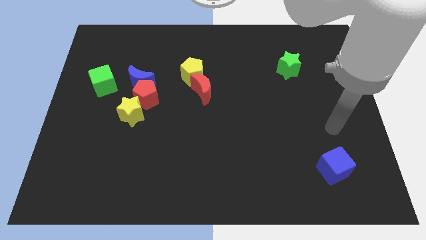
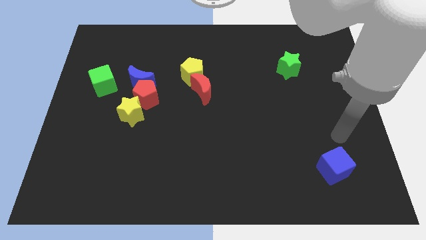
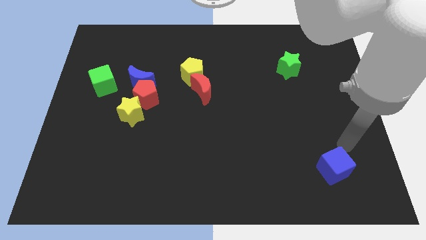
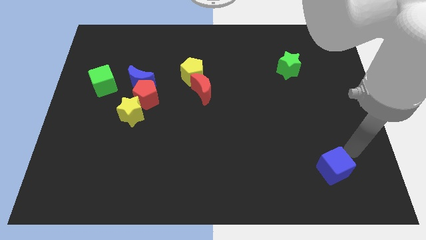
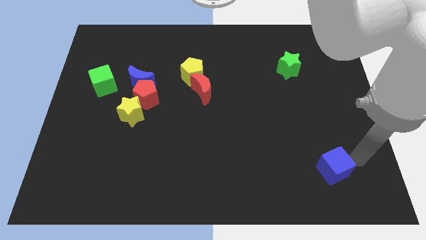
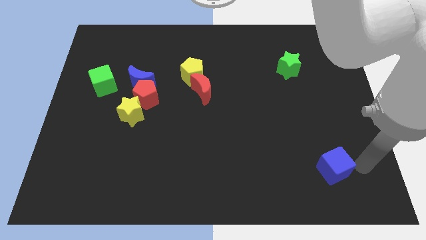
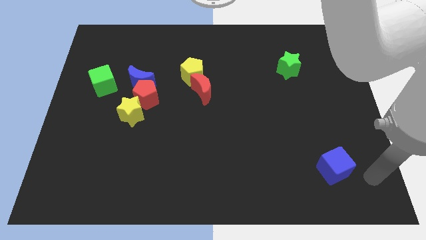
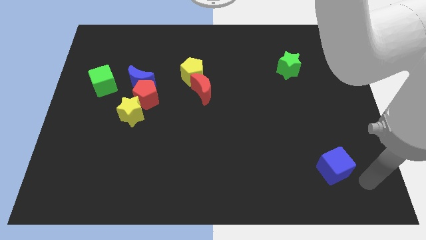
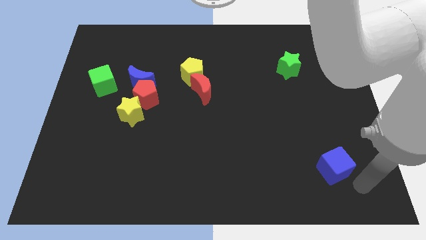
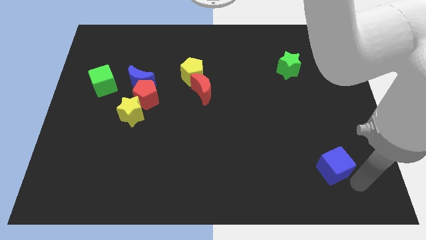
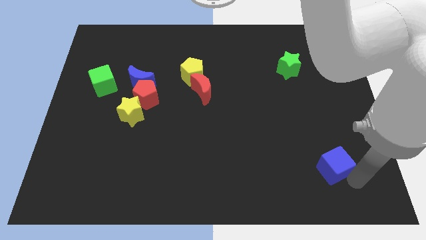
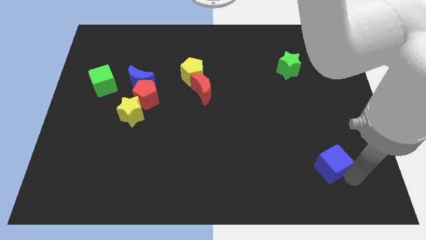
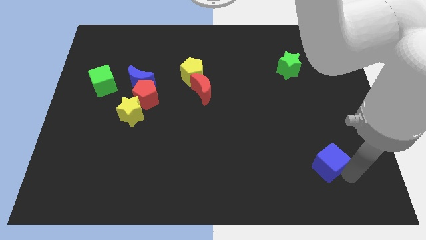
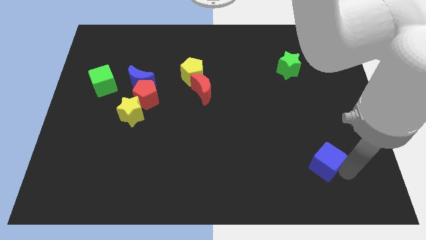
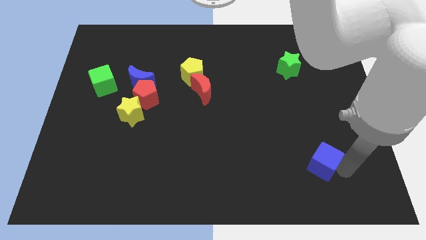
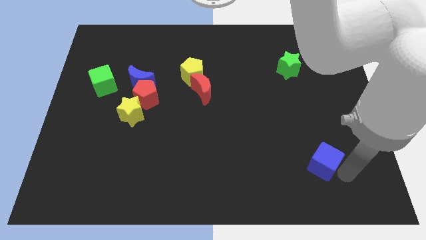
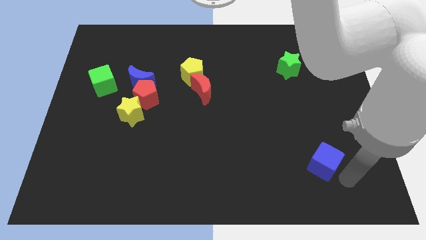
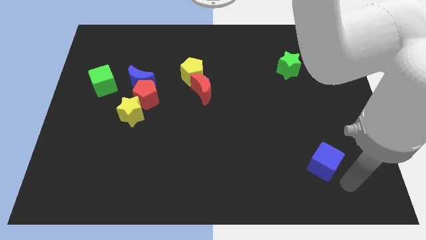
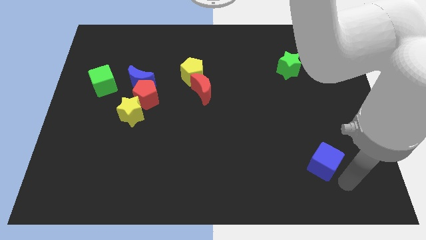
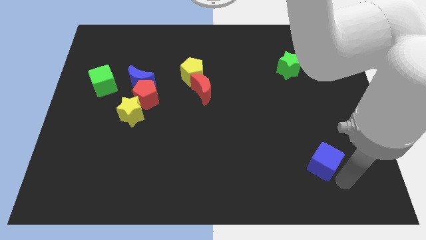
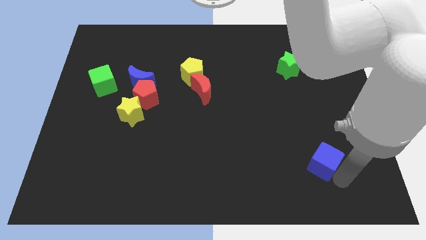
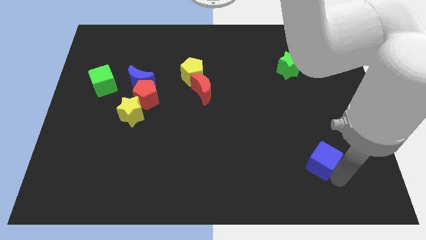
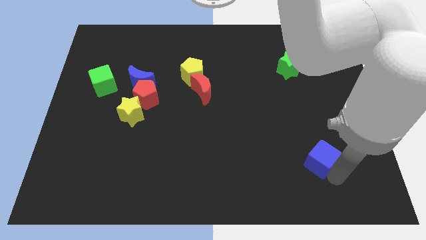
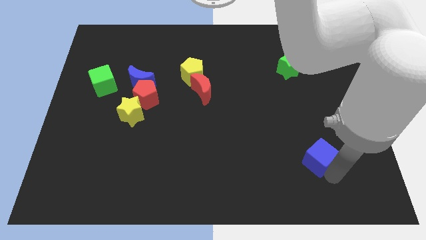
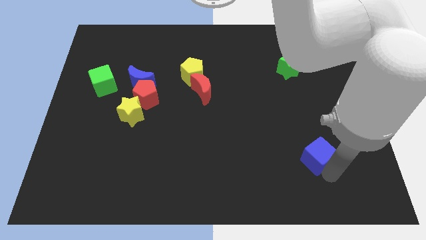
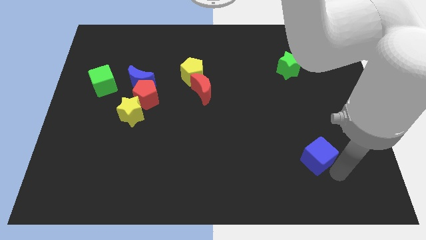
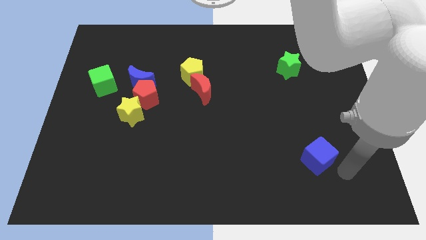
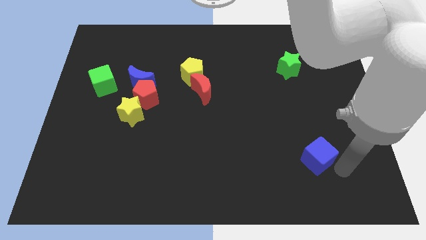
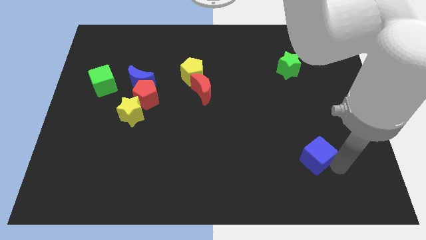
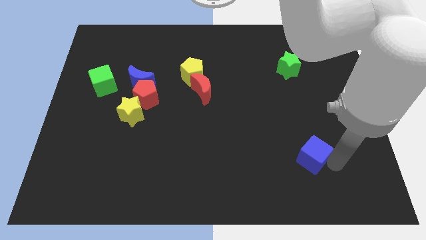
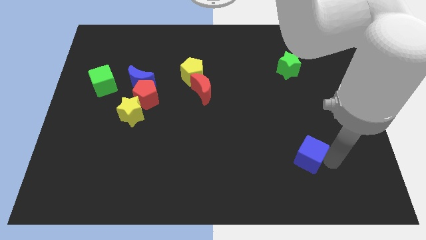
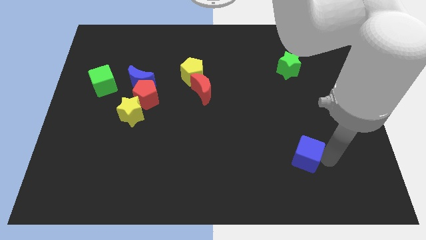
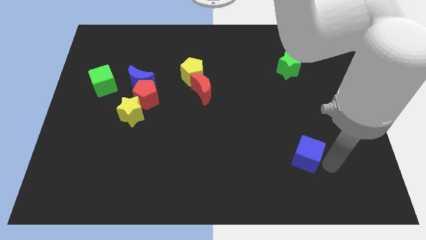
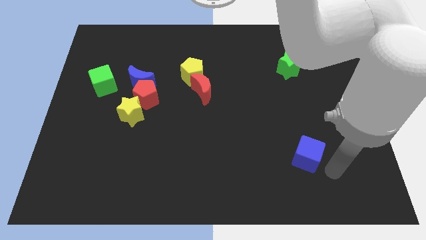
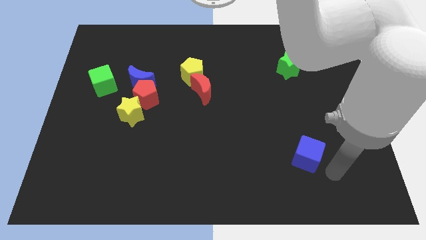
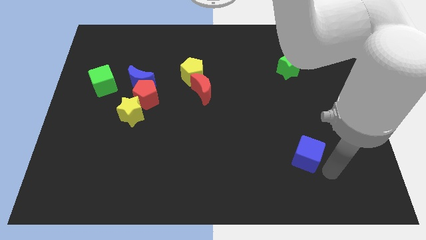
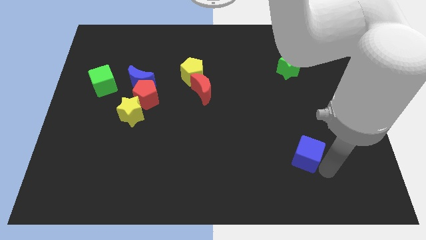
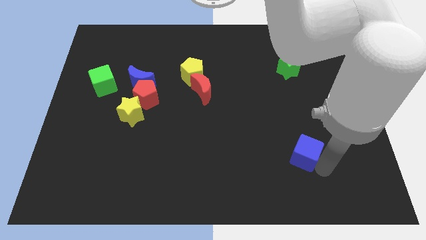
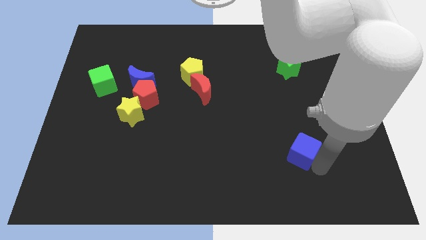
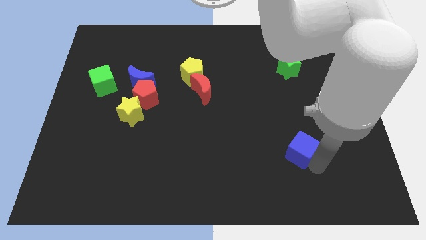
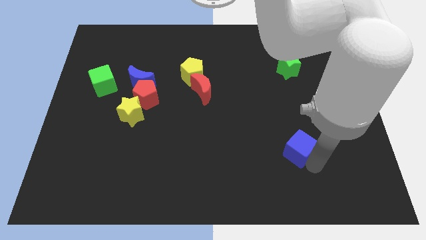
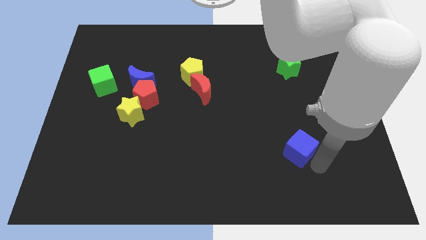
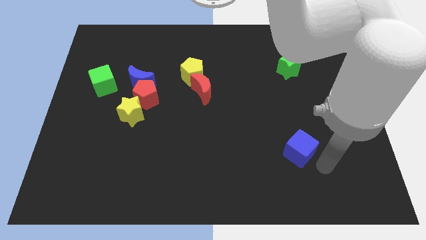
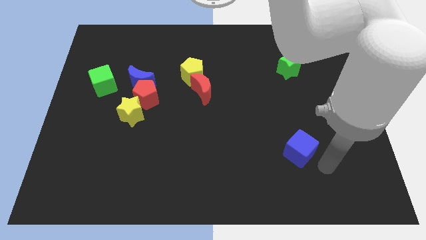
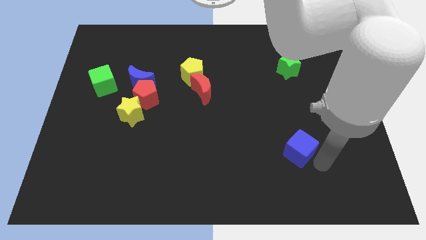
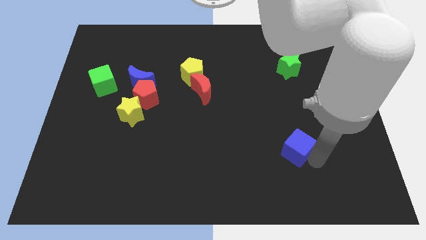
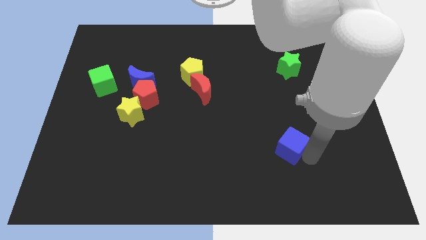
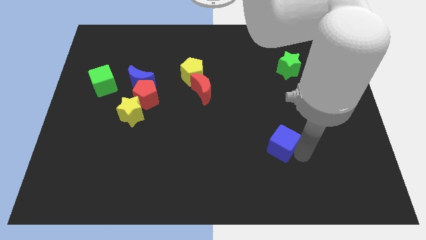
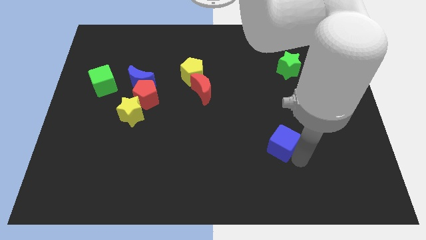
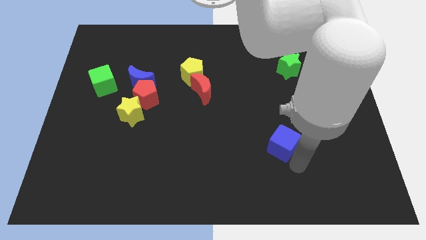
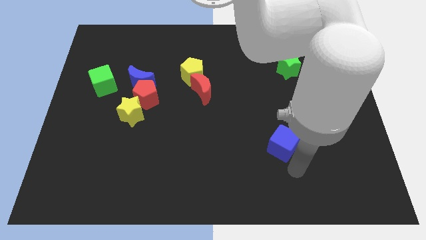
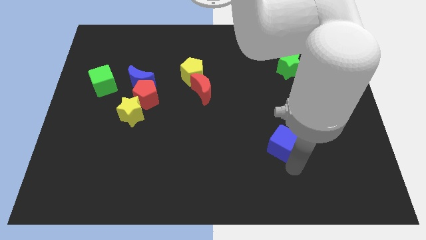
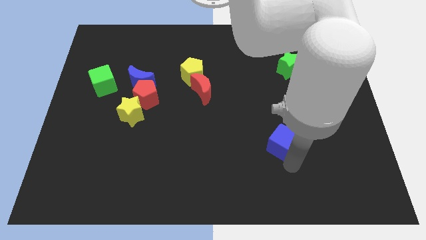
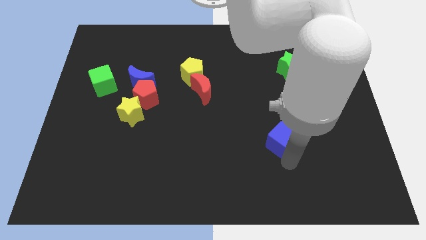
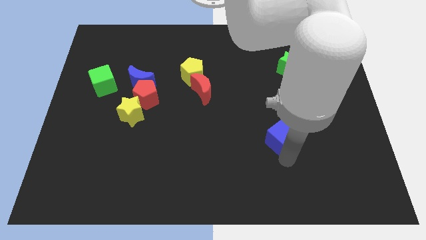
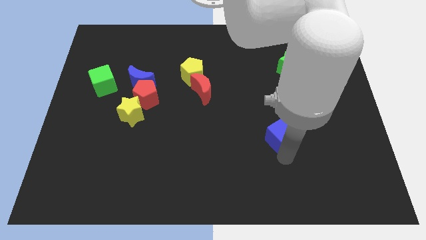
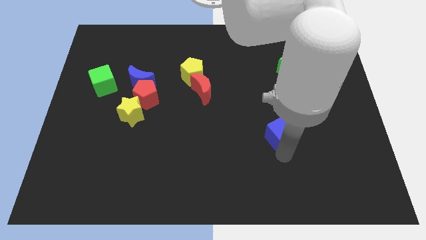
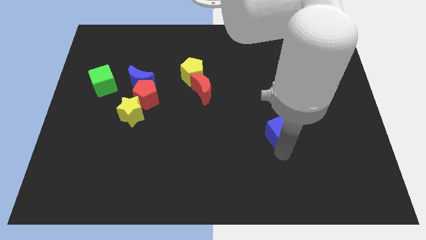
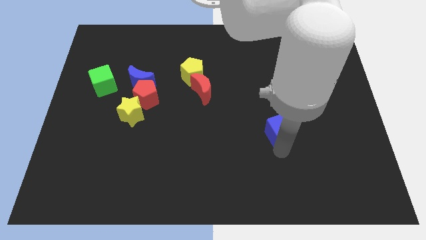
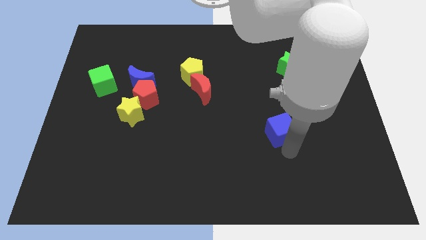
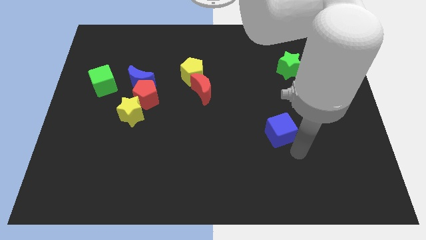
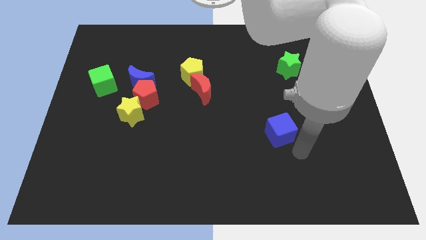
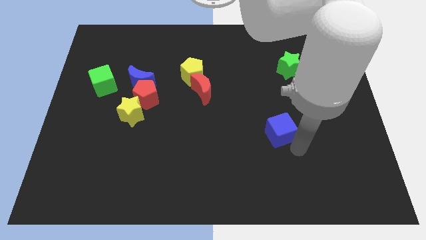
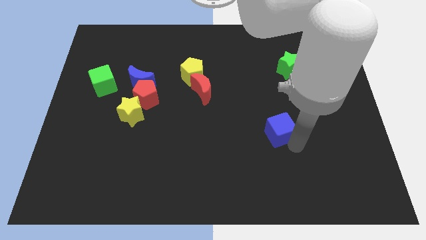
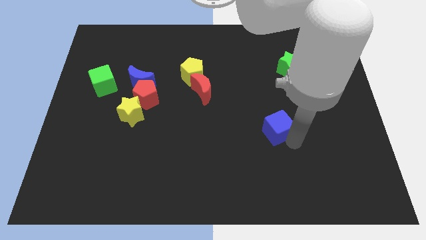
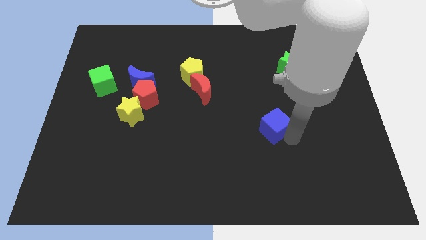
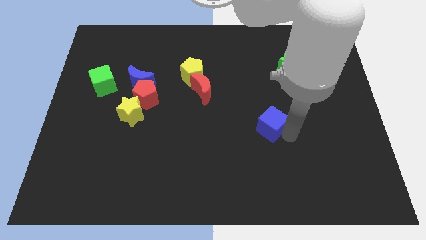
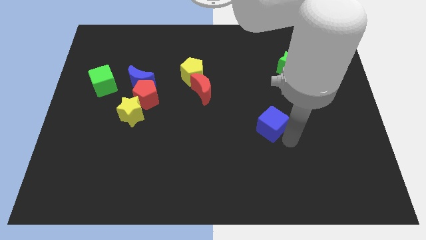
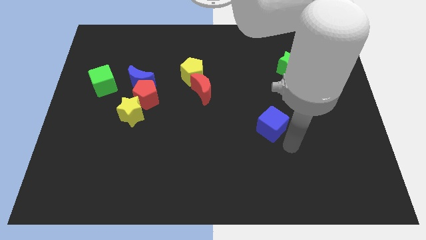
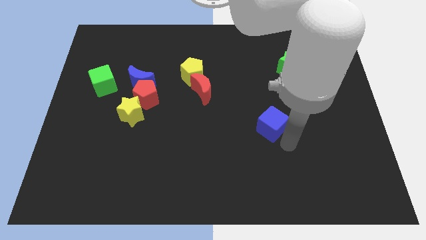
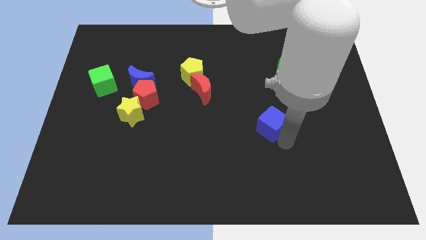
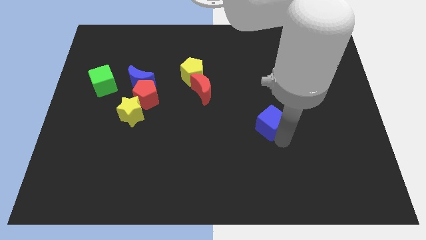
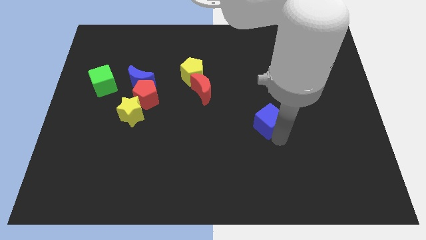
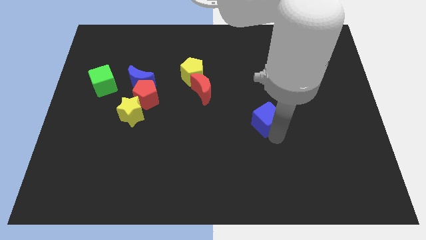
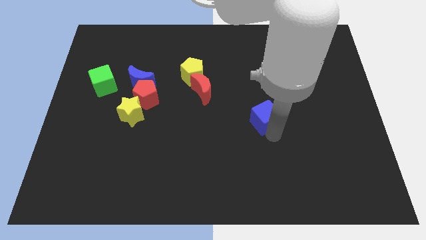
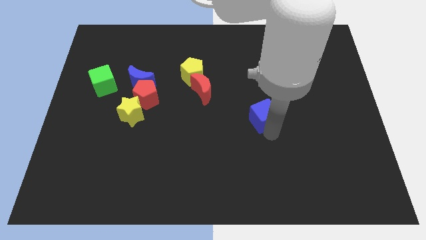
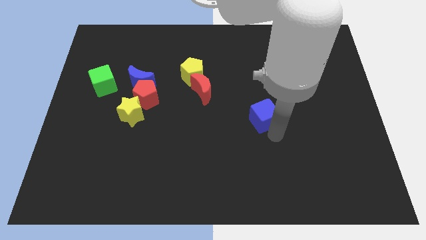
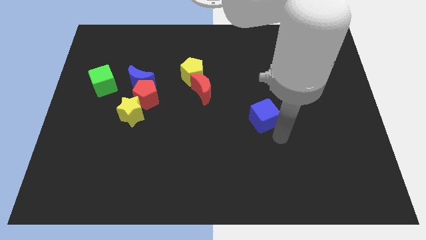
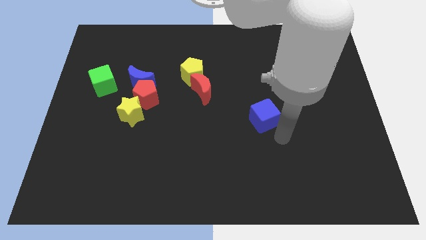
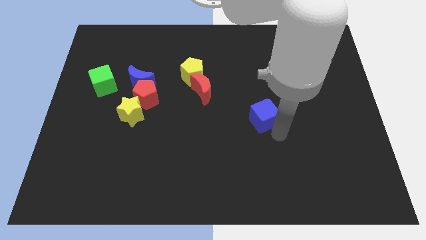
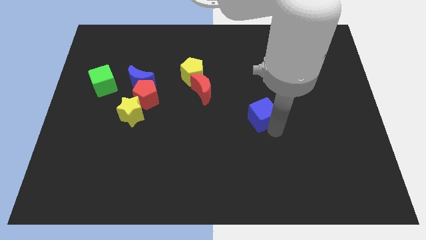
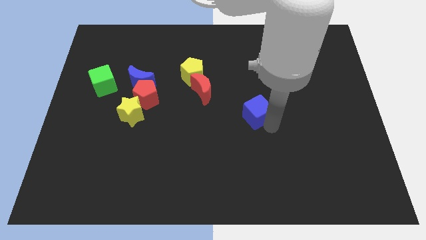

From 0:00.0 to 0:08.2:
slide the blue cube diagonally upwards and to the left
